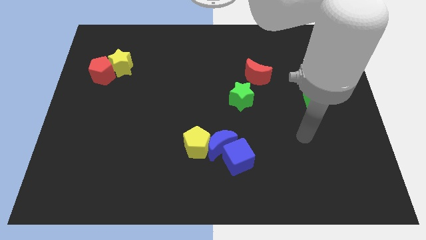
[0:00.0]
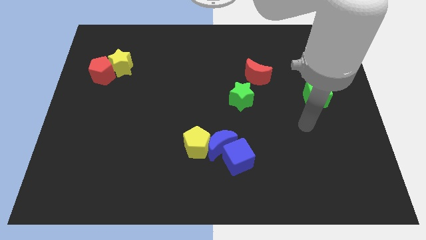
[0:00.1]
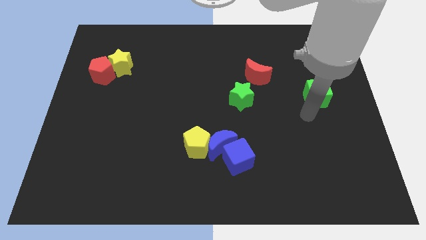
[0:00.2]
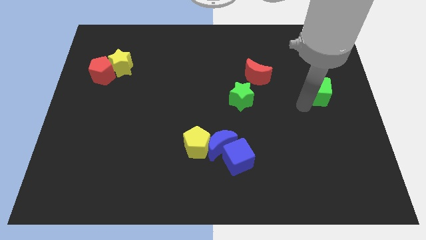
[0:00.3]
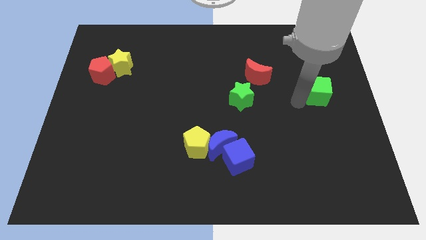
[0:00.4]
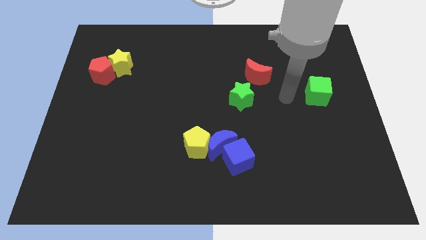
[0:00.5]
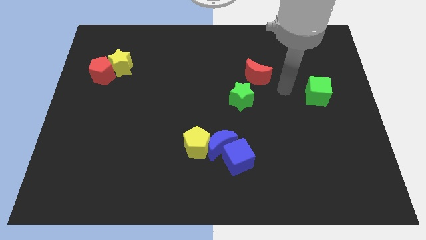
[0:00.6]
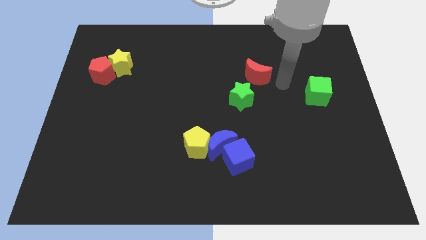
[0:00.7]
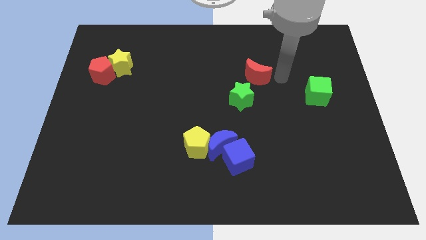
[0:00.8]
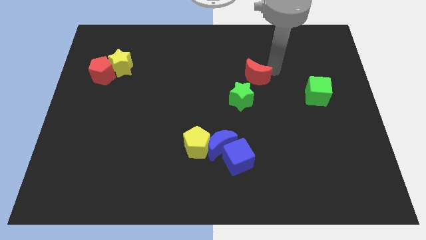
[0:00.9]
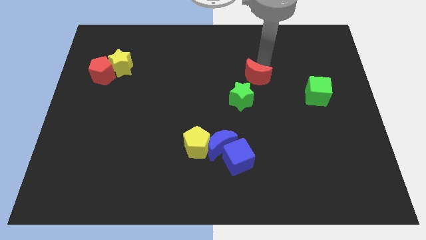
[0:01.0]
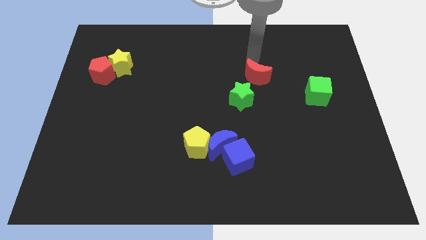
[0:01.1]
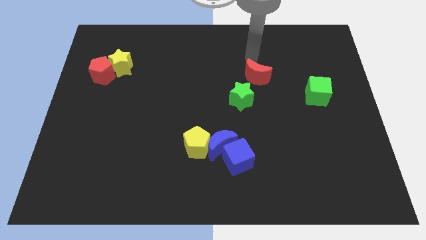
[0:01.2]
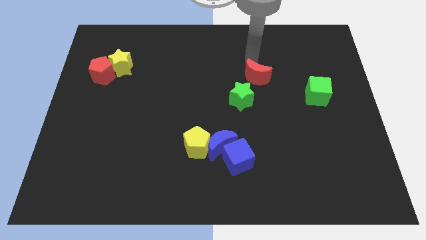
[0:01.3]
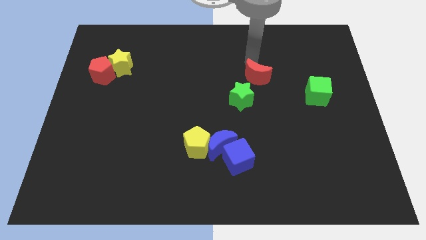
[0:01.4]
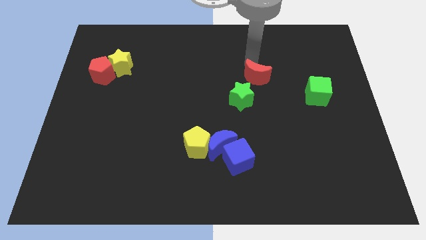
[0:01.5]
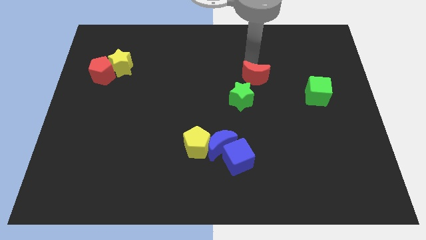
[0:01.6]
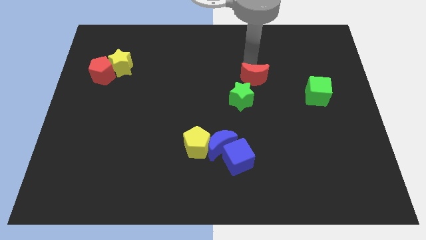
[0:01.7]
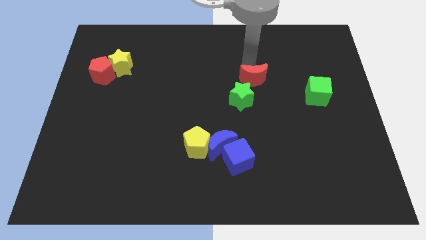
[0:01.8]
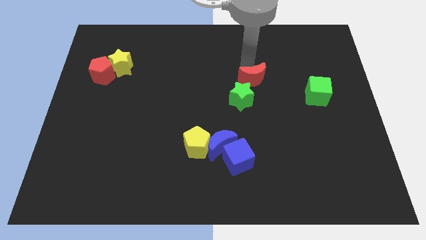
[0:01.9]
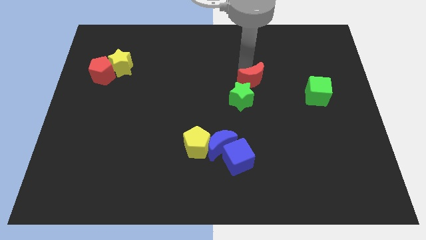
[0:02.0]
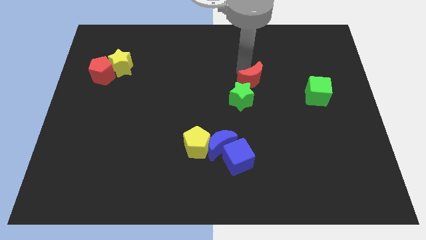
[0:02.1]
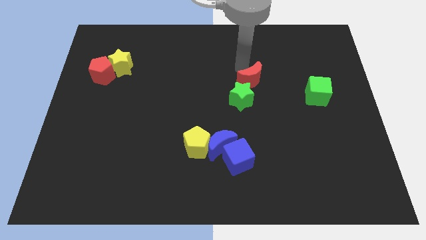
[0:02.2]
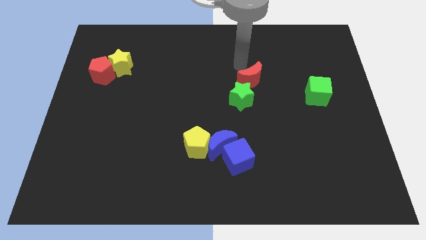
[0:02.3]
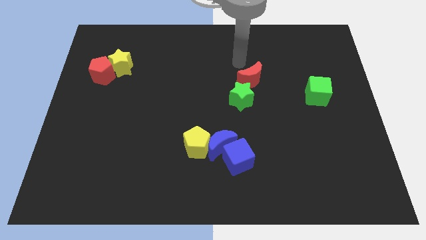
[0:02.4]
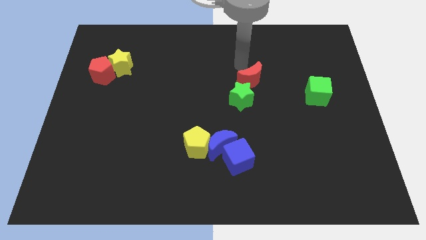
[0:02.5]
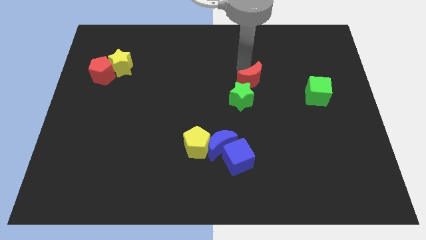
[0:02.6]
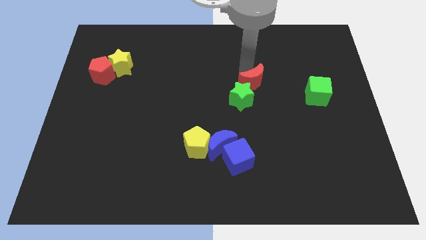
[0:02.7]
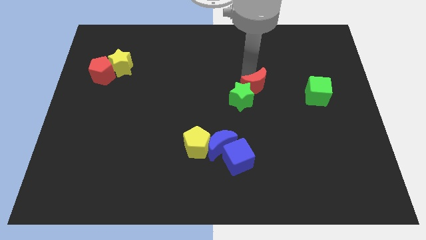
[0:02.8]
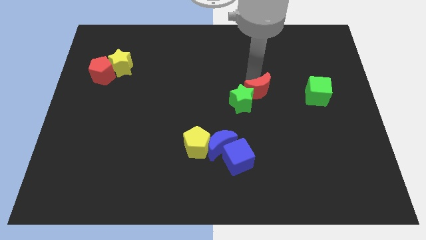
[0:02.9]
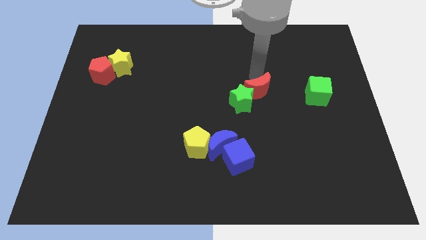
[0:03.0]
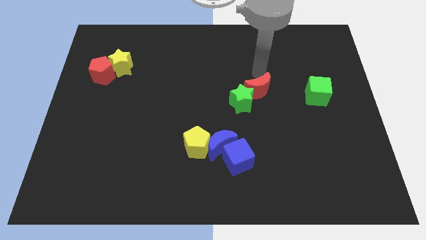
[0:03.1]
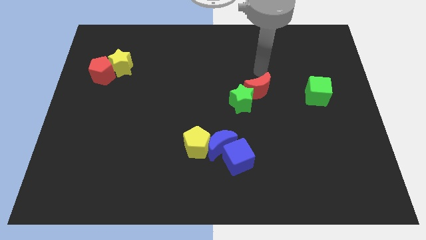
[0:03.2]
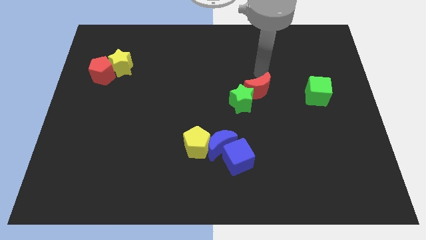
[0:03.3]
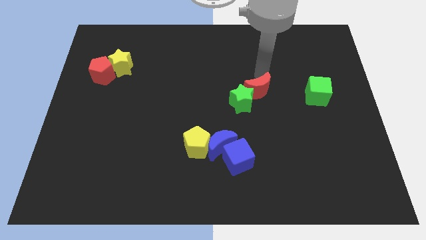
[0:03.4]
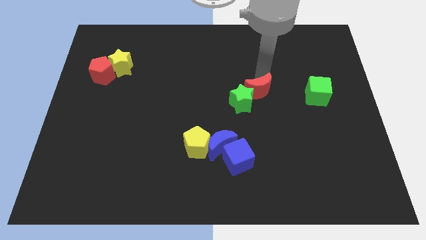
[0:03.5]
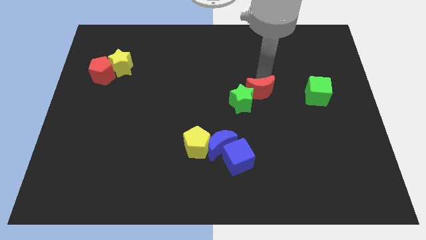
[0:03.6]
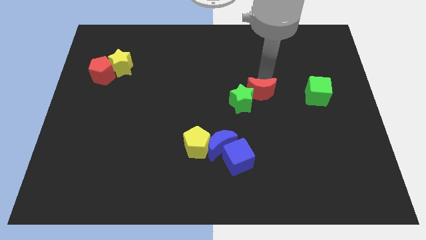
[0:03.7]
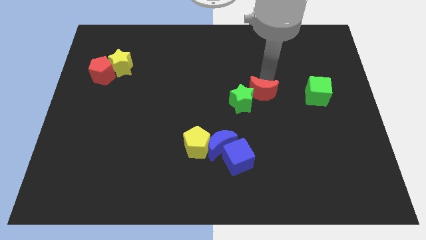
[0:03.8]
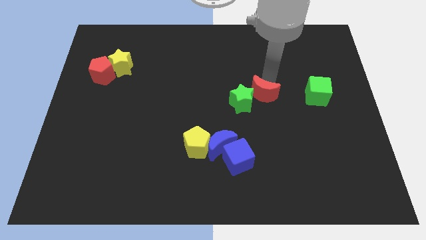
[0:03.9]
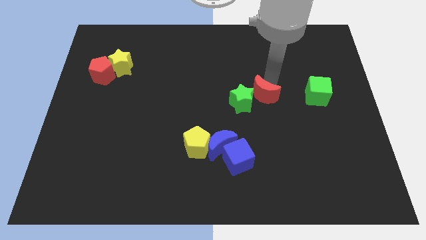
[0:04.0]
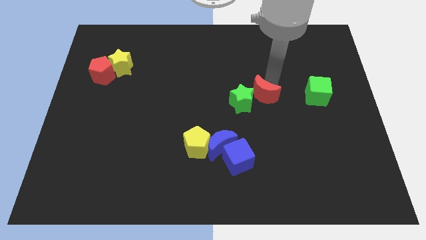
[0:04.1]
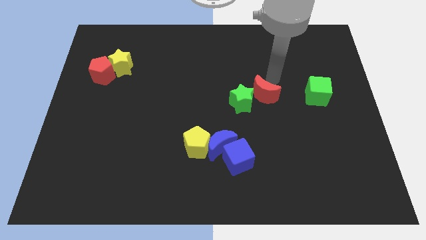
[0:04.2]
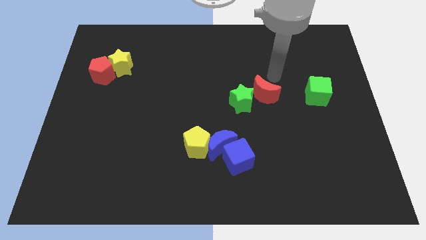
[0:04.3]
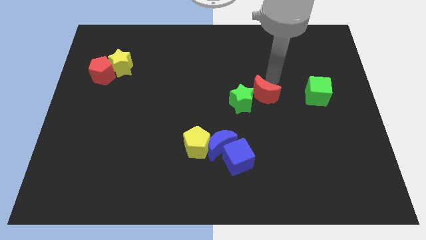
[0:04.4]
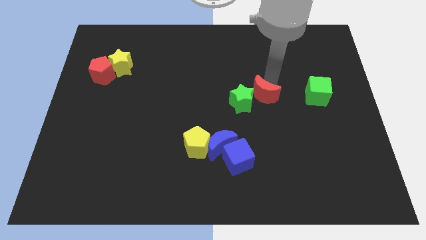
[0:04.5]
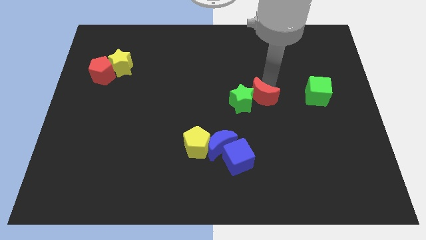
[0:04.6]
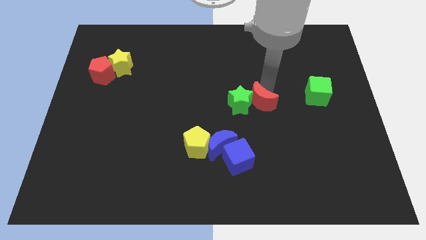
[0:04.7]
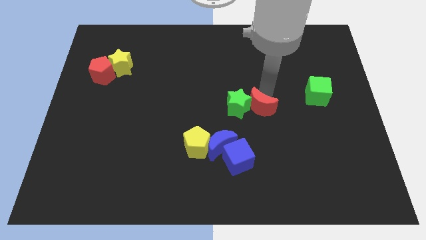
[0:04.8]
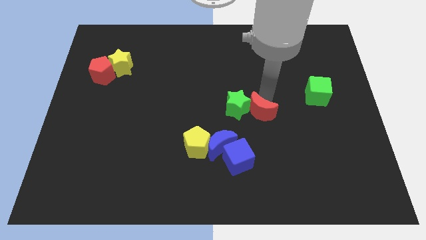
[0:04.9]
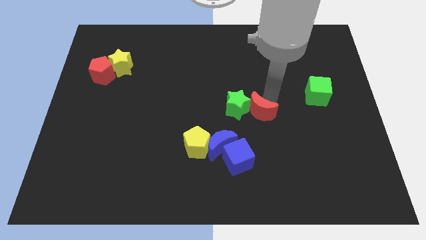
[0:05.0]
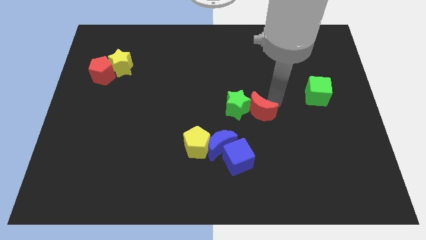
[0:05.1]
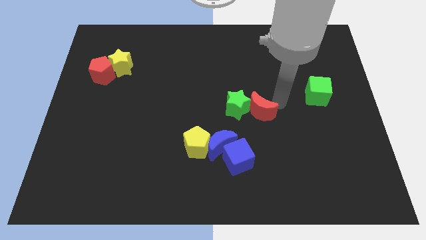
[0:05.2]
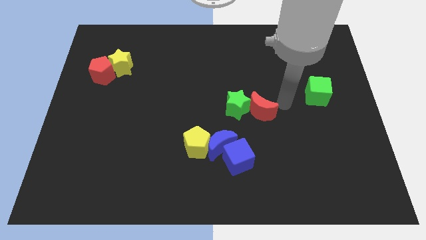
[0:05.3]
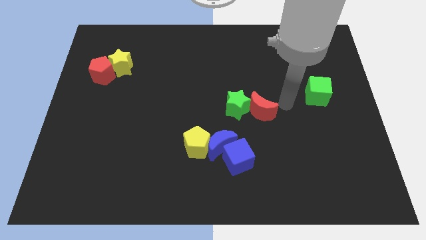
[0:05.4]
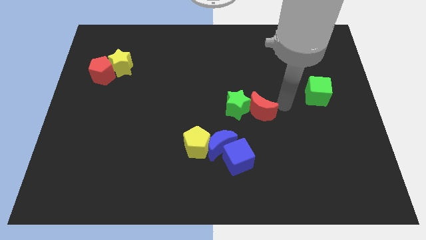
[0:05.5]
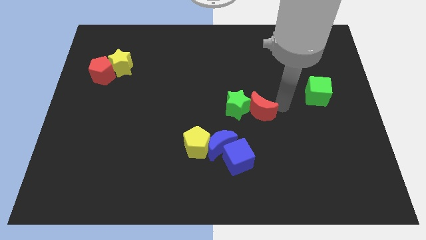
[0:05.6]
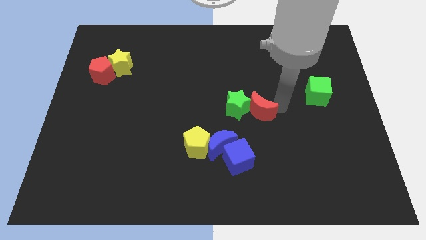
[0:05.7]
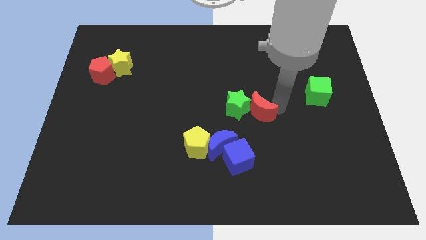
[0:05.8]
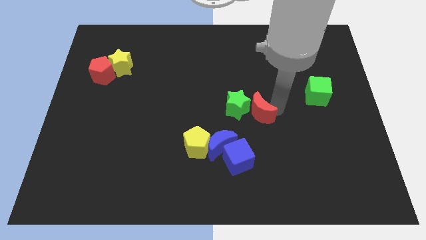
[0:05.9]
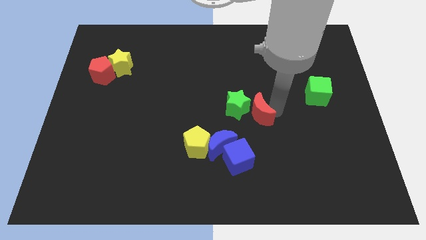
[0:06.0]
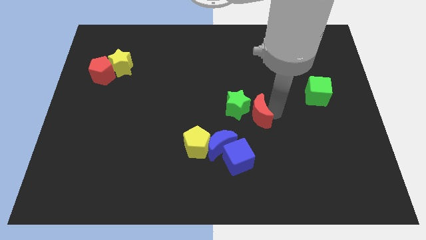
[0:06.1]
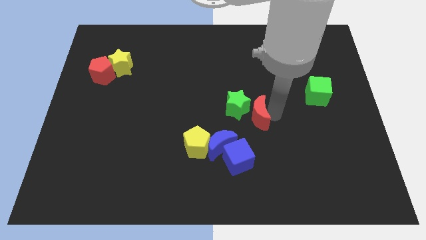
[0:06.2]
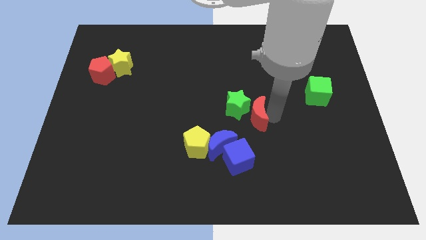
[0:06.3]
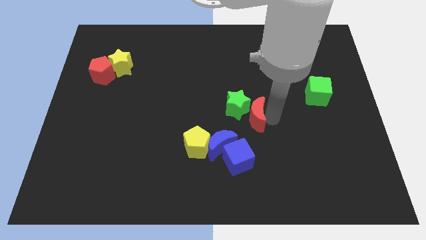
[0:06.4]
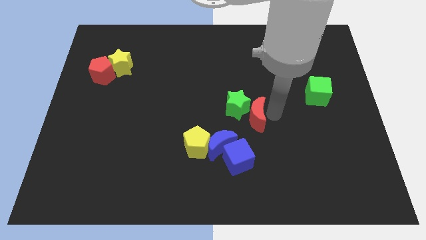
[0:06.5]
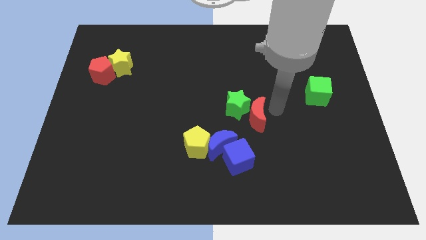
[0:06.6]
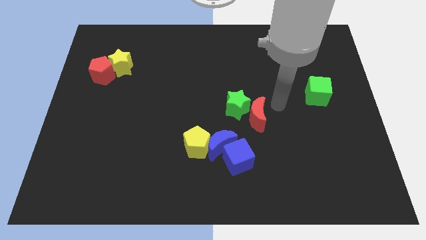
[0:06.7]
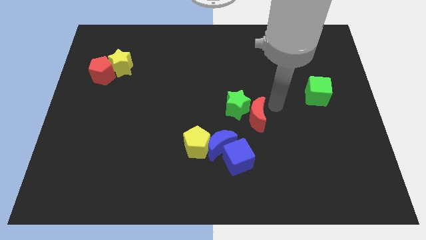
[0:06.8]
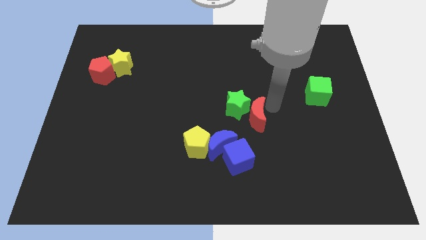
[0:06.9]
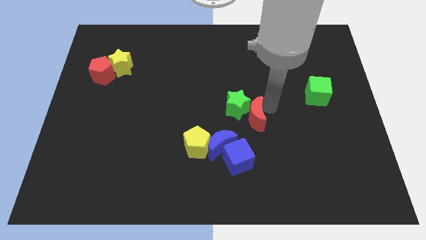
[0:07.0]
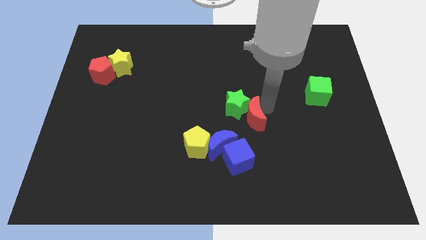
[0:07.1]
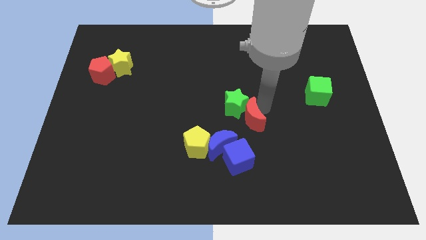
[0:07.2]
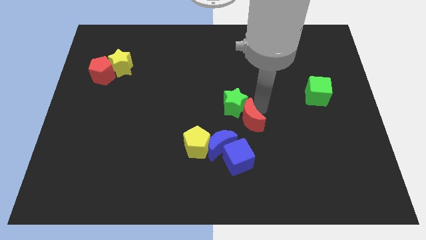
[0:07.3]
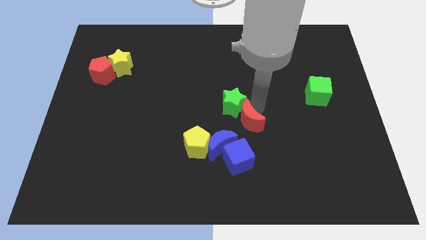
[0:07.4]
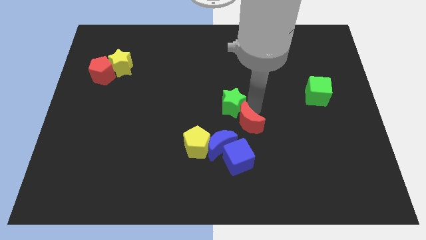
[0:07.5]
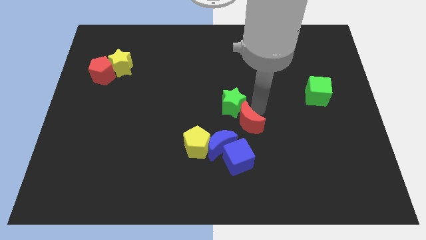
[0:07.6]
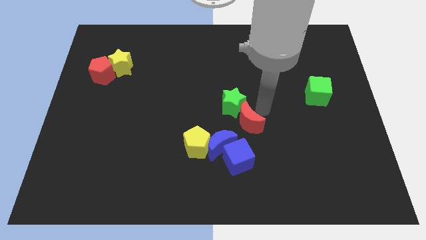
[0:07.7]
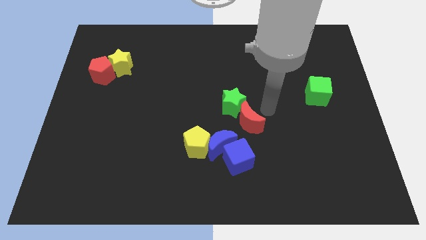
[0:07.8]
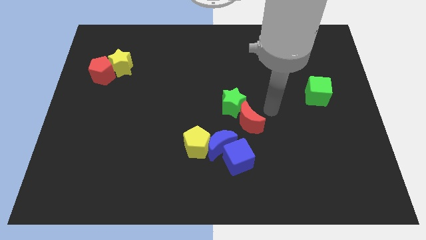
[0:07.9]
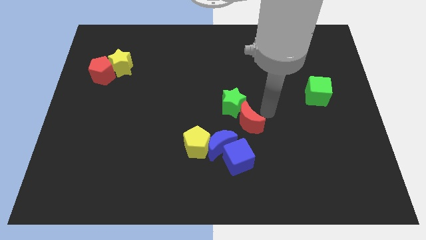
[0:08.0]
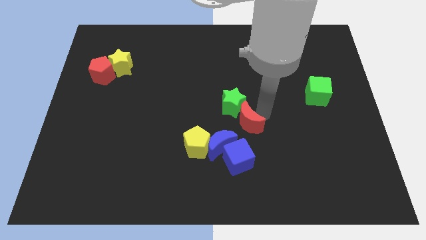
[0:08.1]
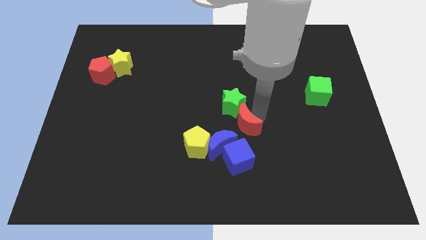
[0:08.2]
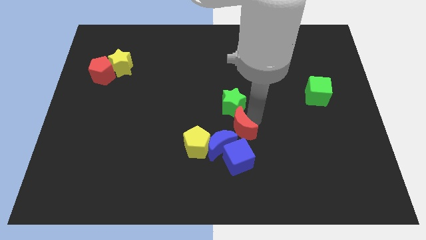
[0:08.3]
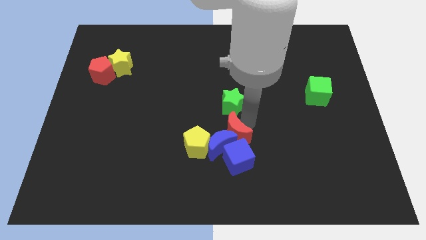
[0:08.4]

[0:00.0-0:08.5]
slide the red moon close to the blue moon
